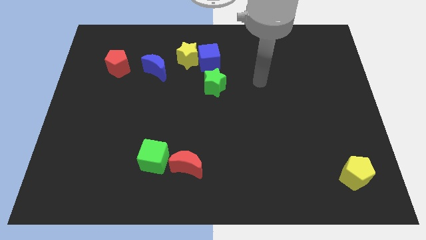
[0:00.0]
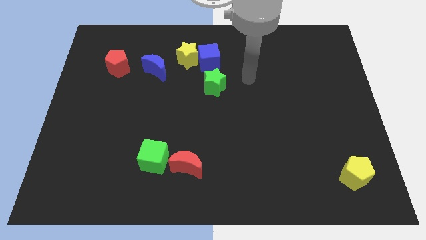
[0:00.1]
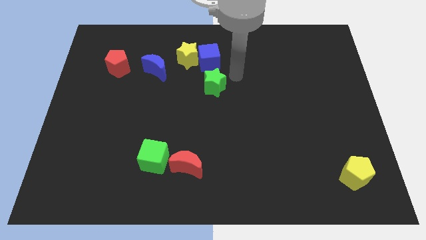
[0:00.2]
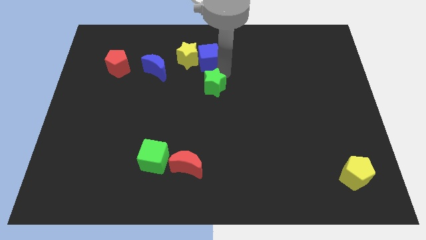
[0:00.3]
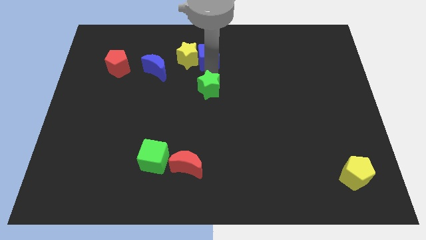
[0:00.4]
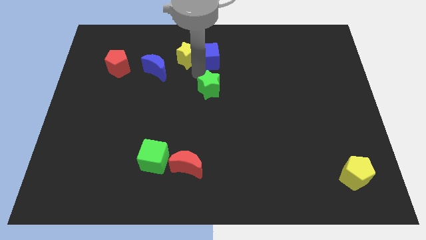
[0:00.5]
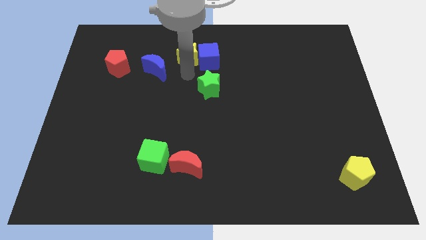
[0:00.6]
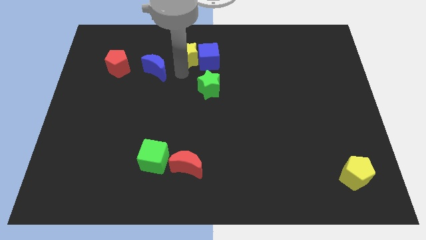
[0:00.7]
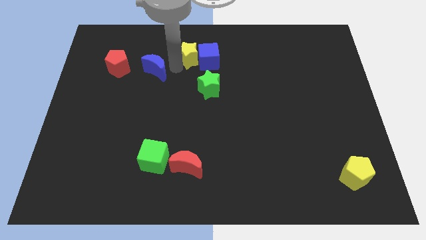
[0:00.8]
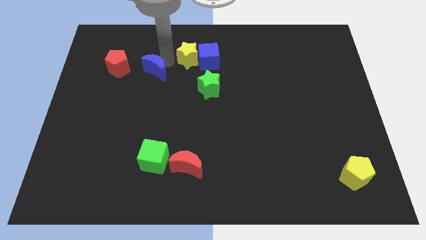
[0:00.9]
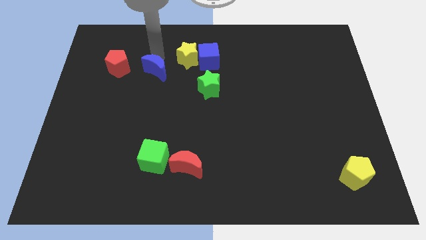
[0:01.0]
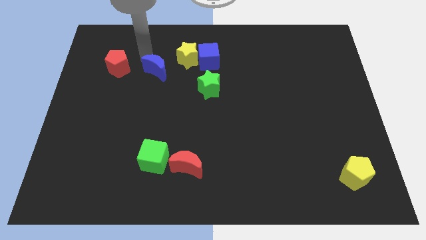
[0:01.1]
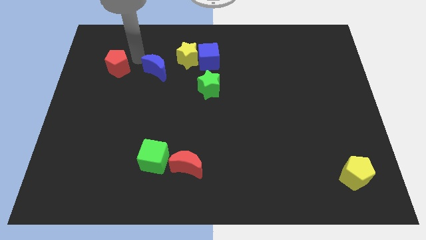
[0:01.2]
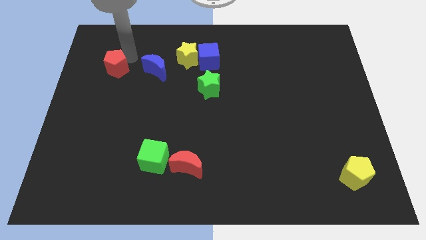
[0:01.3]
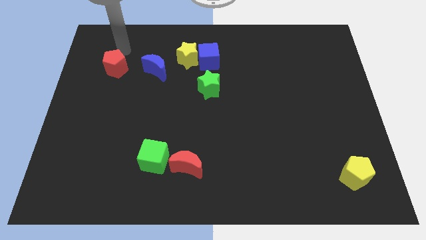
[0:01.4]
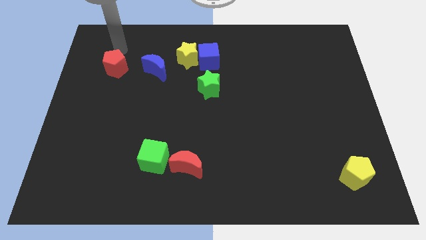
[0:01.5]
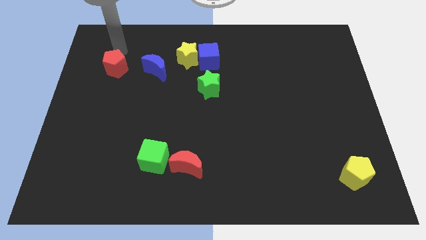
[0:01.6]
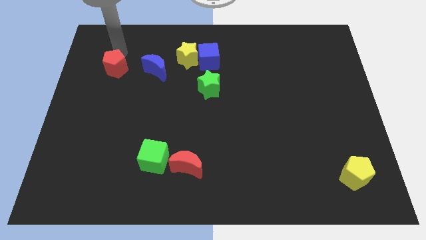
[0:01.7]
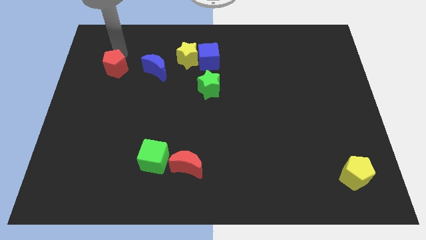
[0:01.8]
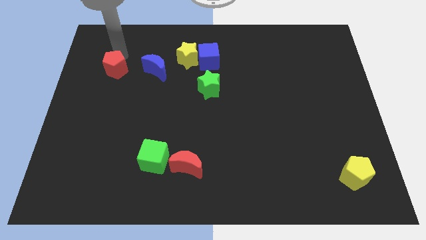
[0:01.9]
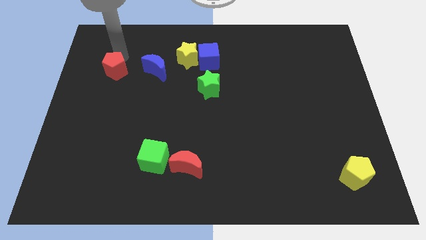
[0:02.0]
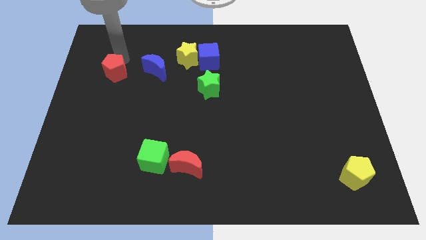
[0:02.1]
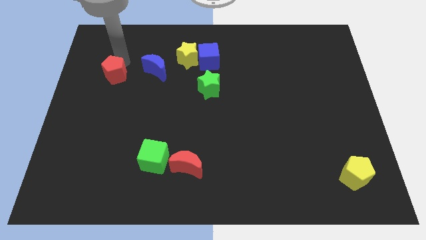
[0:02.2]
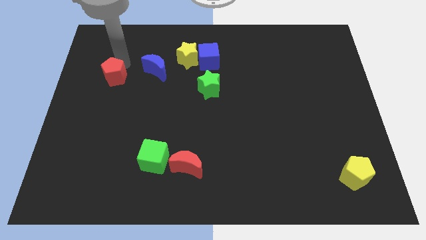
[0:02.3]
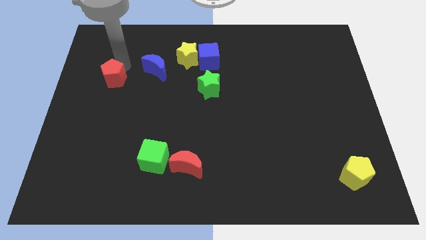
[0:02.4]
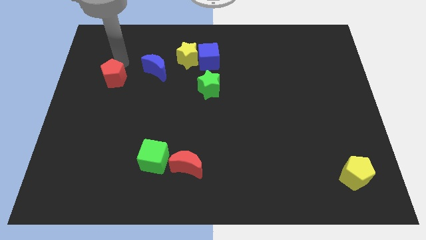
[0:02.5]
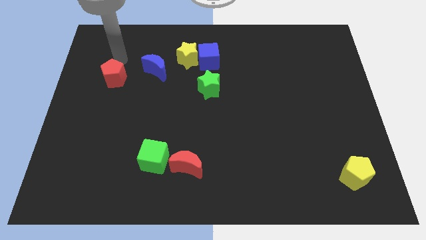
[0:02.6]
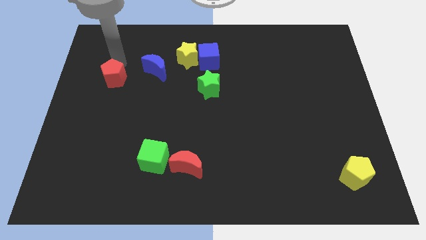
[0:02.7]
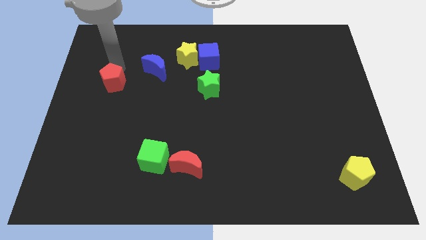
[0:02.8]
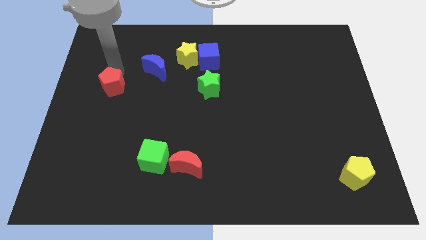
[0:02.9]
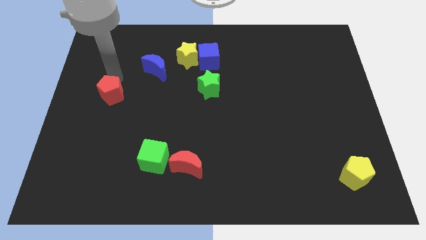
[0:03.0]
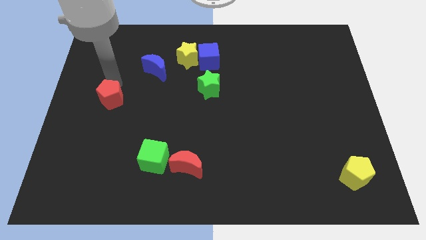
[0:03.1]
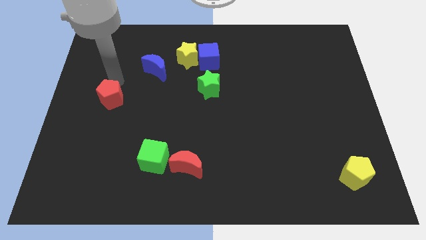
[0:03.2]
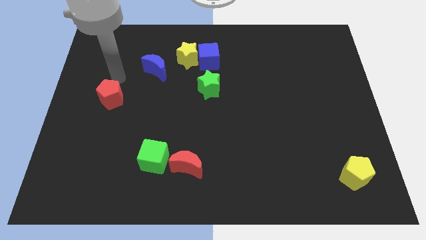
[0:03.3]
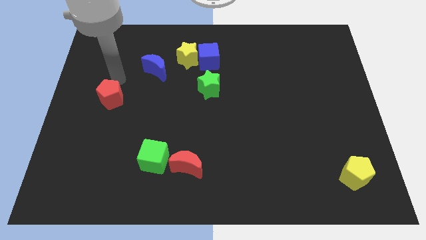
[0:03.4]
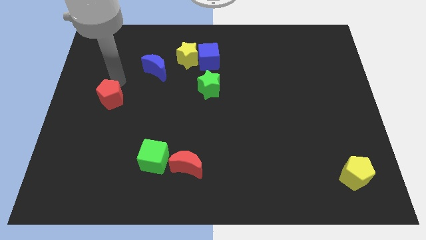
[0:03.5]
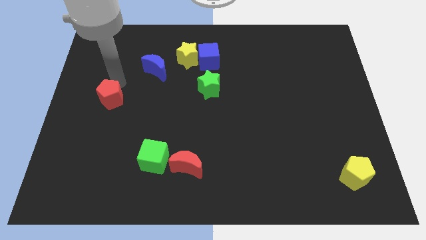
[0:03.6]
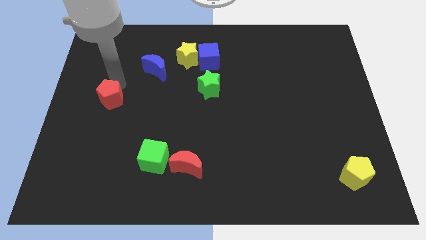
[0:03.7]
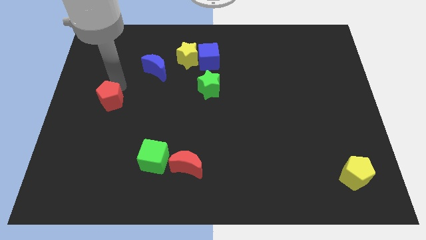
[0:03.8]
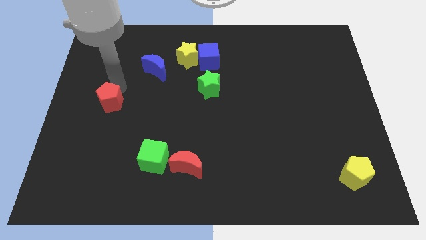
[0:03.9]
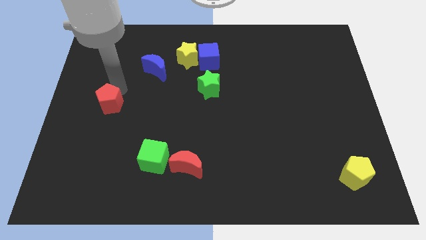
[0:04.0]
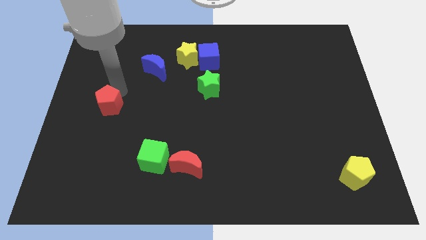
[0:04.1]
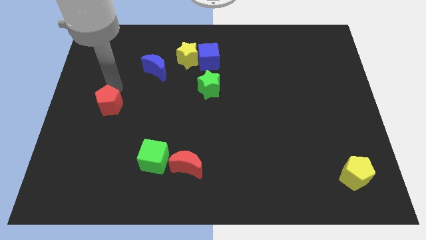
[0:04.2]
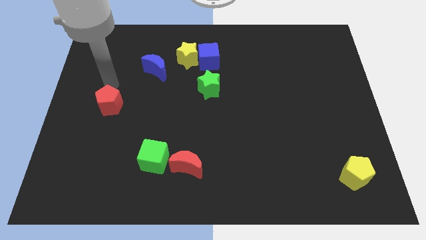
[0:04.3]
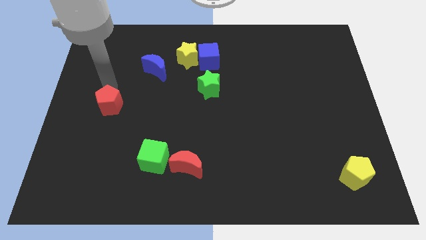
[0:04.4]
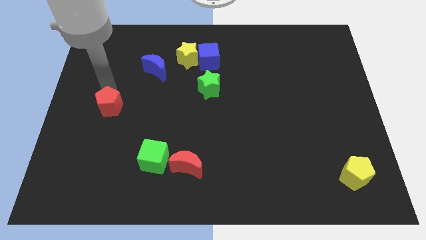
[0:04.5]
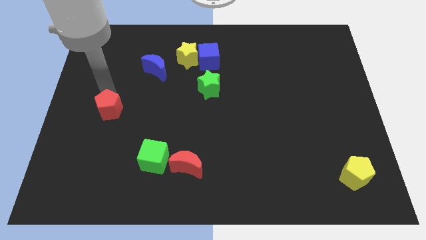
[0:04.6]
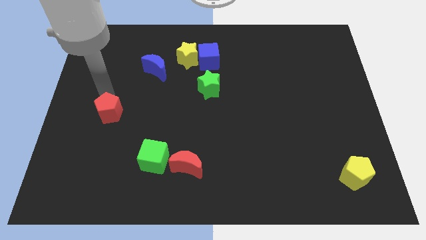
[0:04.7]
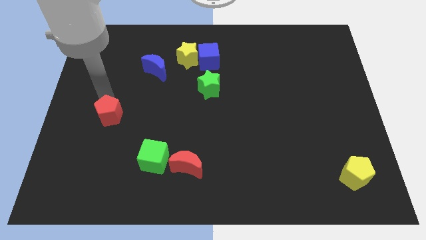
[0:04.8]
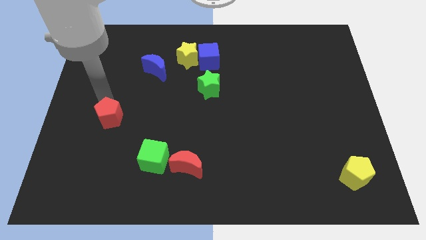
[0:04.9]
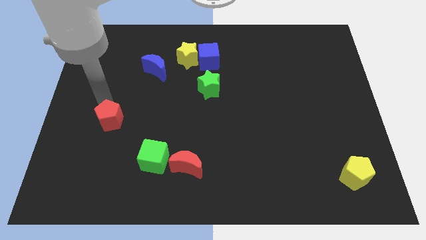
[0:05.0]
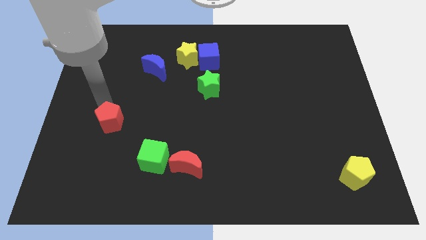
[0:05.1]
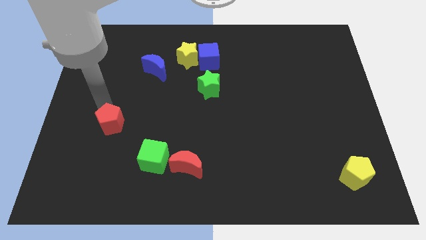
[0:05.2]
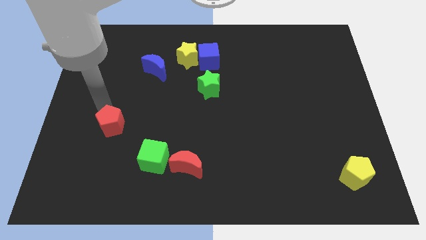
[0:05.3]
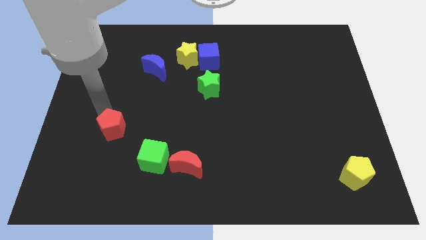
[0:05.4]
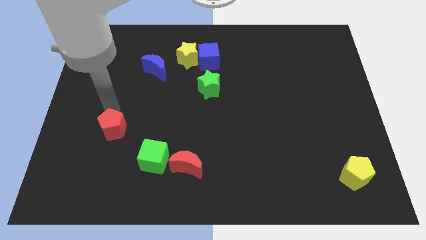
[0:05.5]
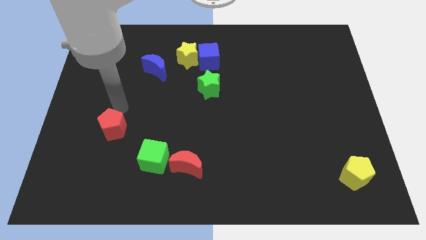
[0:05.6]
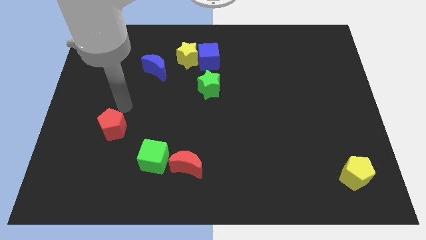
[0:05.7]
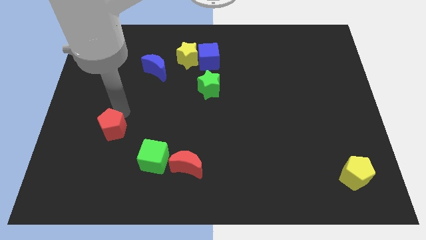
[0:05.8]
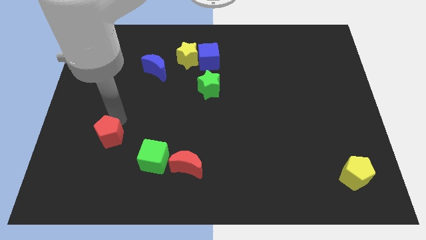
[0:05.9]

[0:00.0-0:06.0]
slide the red pentagon down

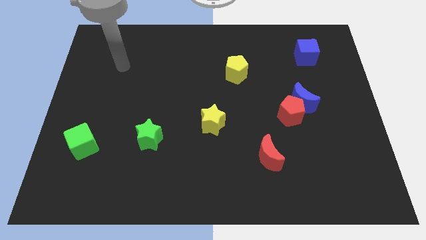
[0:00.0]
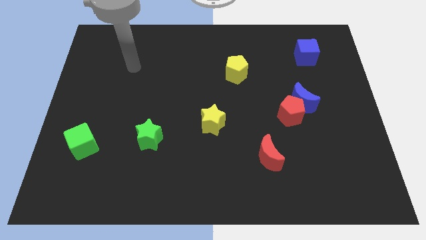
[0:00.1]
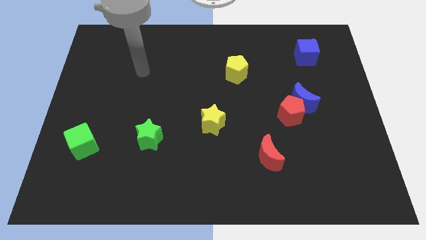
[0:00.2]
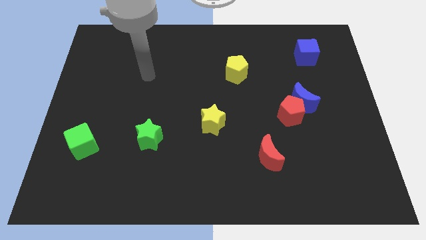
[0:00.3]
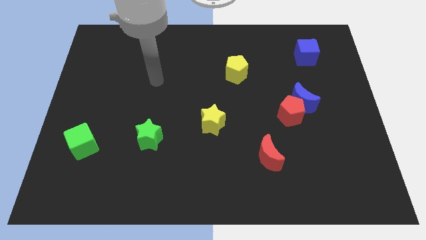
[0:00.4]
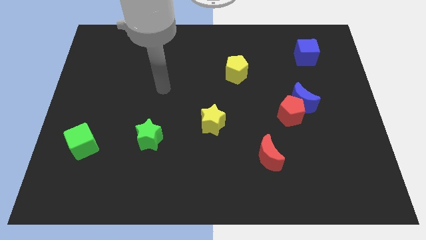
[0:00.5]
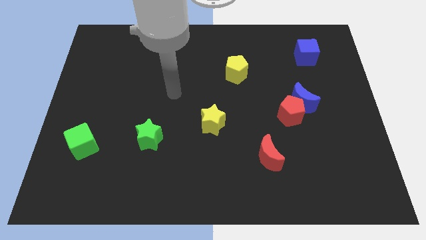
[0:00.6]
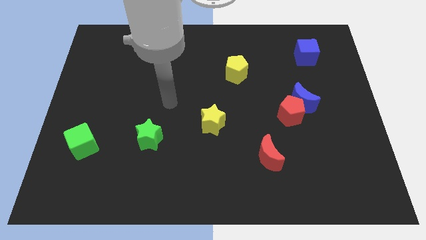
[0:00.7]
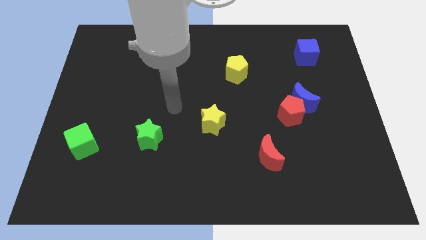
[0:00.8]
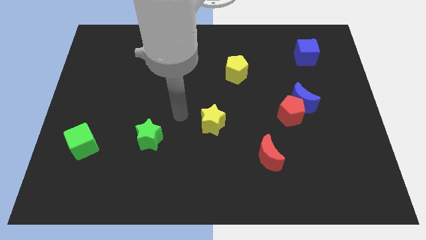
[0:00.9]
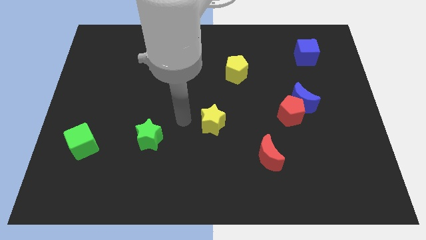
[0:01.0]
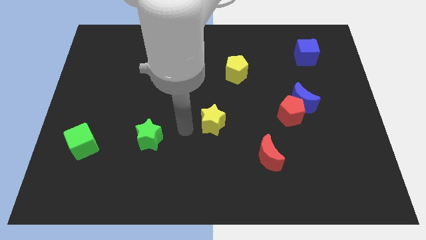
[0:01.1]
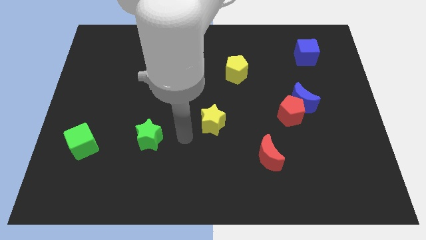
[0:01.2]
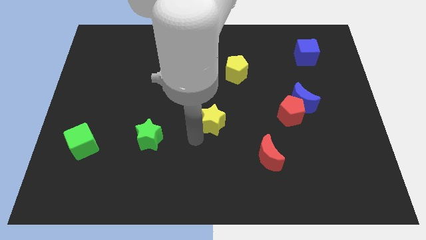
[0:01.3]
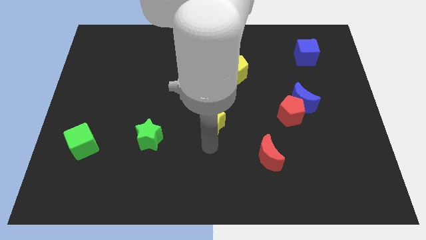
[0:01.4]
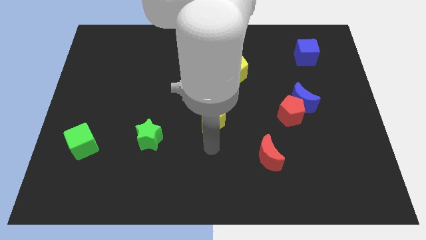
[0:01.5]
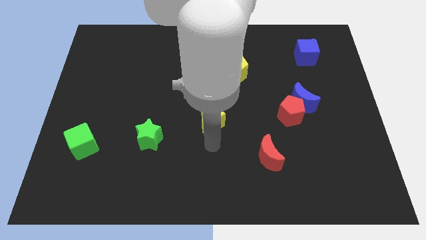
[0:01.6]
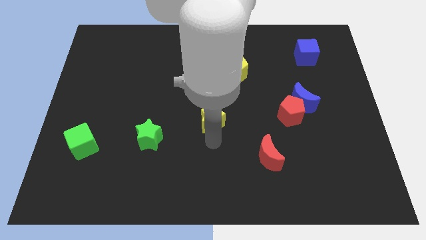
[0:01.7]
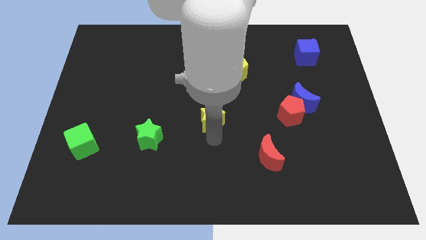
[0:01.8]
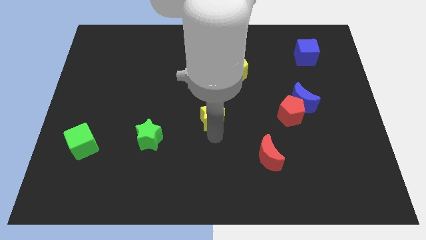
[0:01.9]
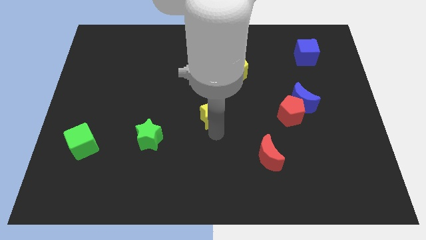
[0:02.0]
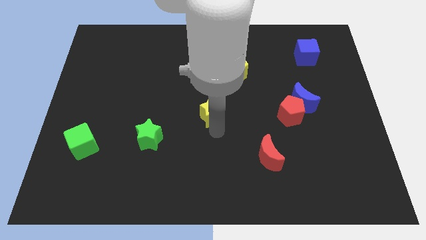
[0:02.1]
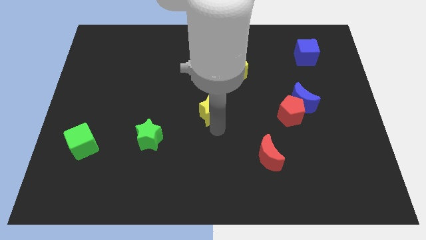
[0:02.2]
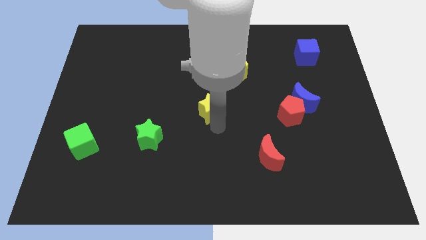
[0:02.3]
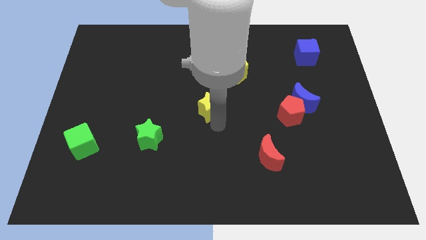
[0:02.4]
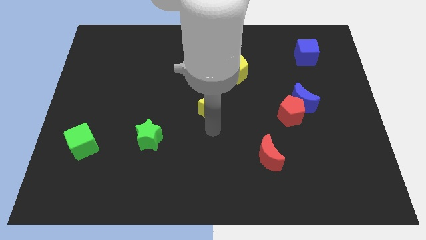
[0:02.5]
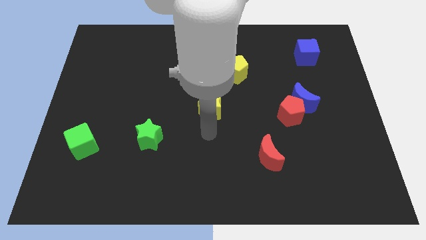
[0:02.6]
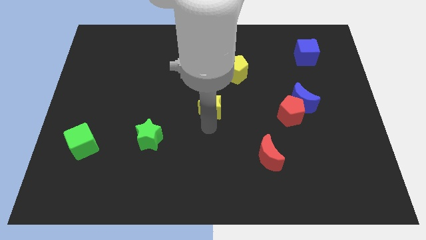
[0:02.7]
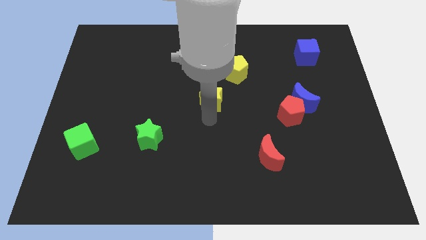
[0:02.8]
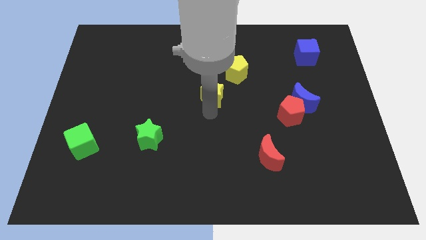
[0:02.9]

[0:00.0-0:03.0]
slide the yellow star a bit up
